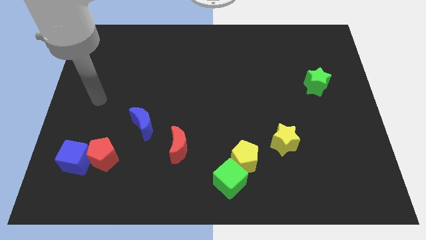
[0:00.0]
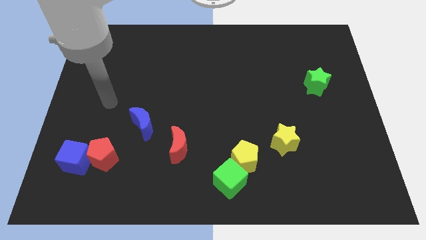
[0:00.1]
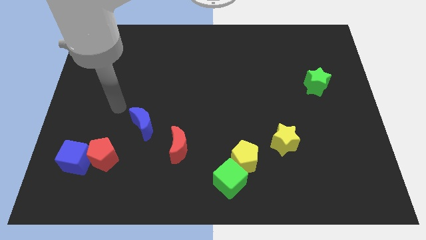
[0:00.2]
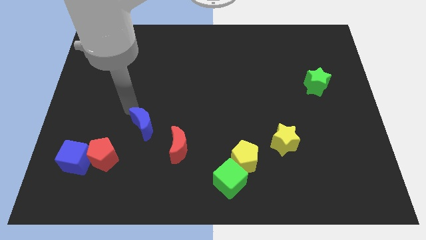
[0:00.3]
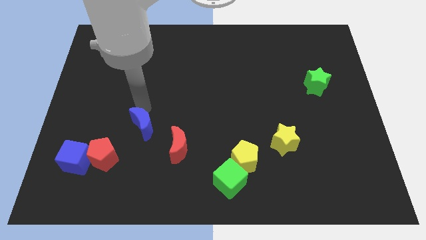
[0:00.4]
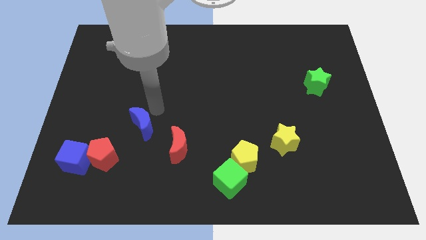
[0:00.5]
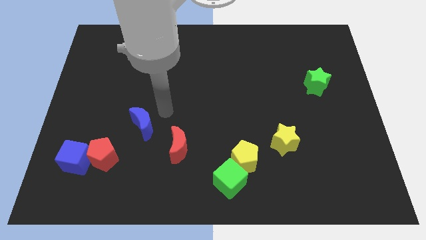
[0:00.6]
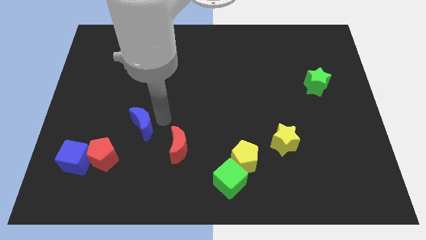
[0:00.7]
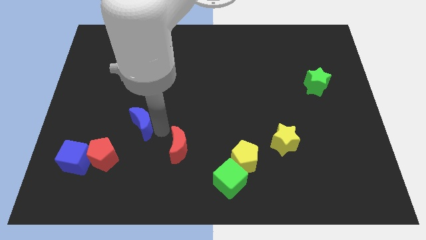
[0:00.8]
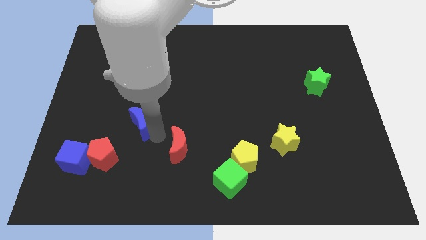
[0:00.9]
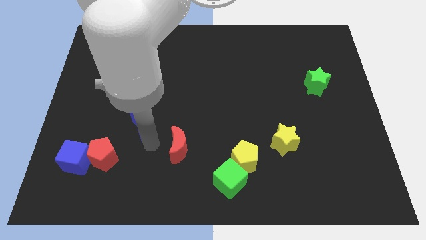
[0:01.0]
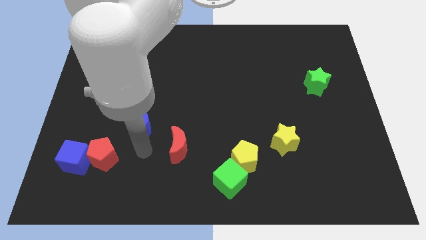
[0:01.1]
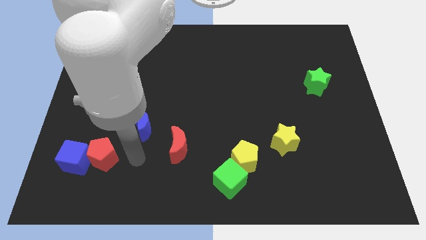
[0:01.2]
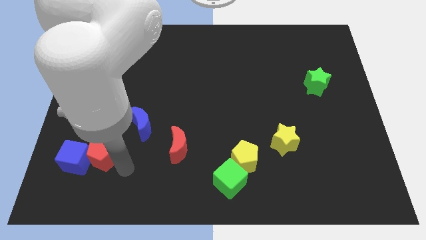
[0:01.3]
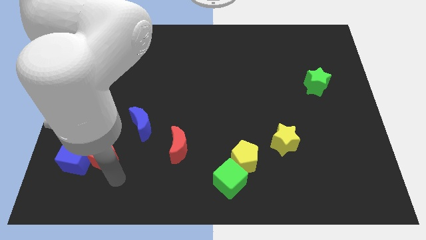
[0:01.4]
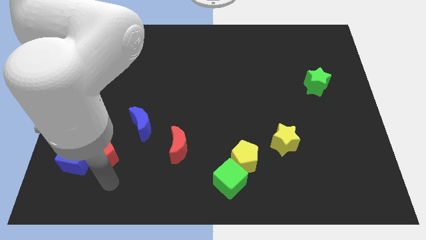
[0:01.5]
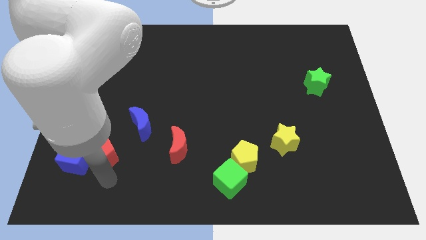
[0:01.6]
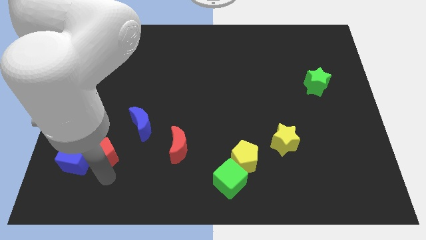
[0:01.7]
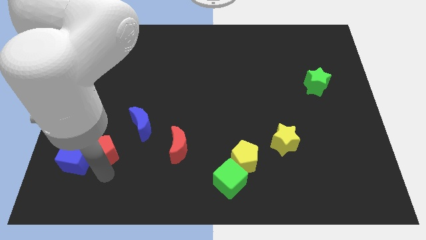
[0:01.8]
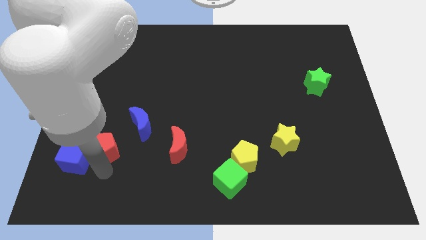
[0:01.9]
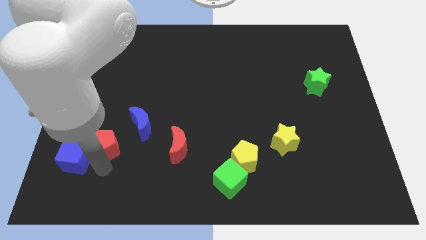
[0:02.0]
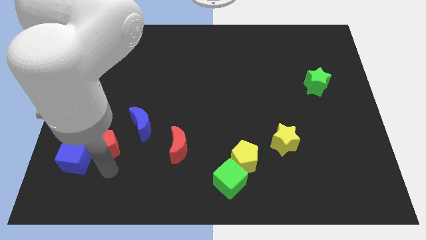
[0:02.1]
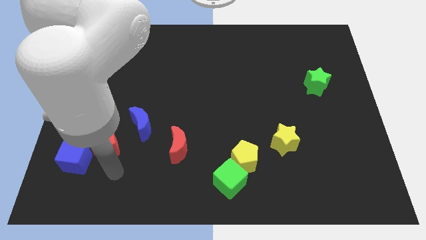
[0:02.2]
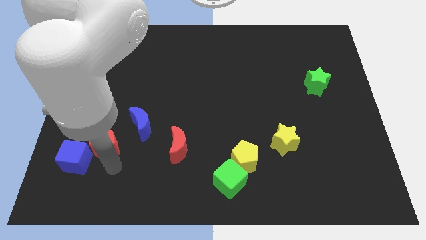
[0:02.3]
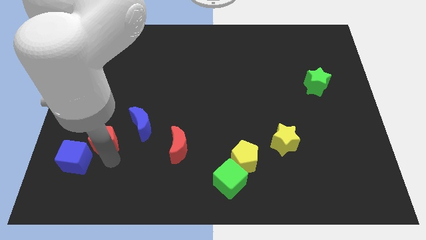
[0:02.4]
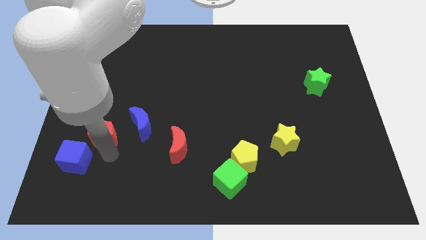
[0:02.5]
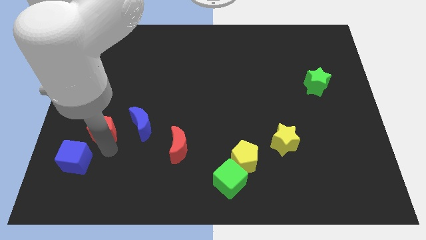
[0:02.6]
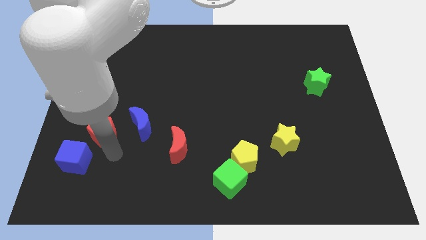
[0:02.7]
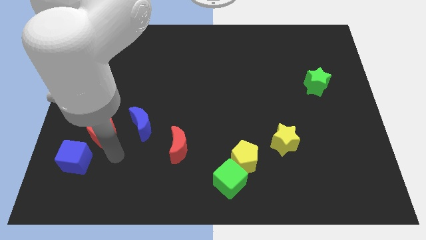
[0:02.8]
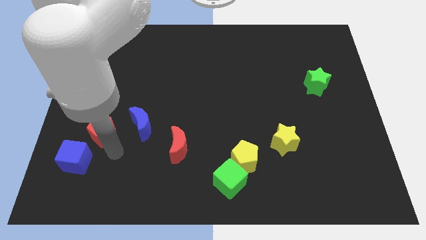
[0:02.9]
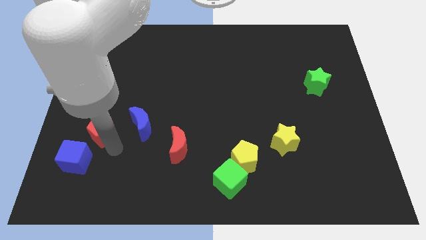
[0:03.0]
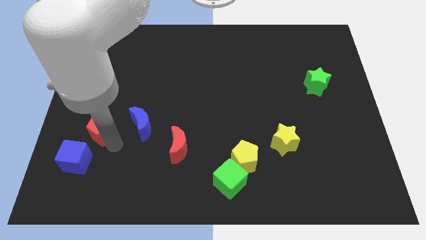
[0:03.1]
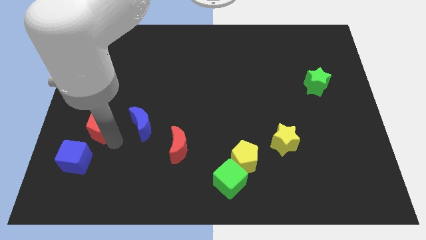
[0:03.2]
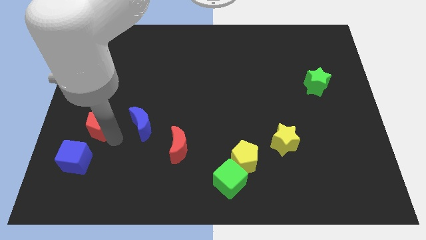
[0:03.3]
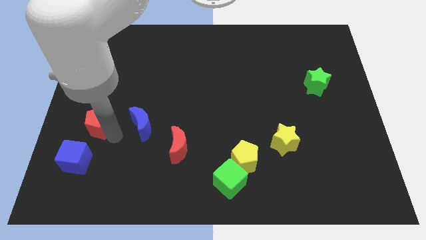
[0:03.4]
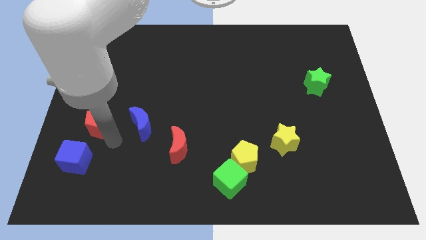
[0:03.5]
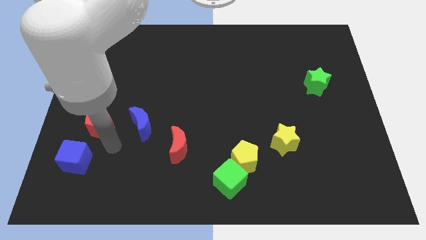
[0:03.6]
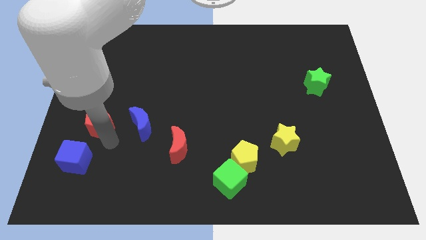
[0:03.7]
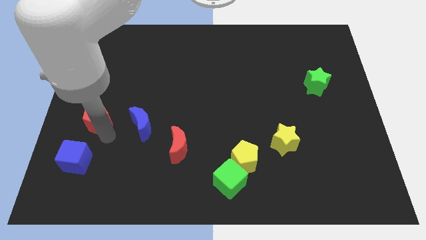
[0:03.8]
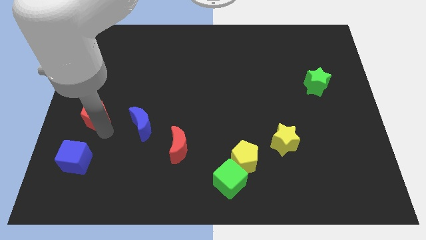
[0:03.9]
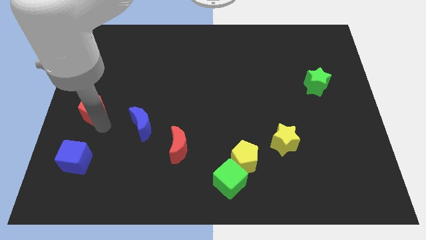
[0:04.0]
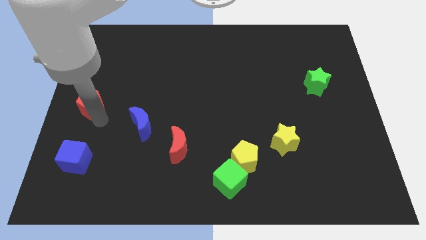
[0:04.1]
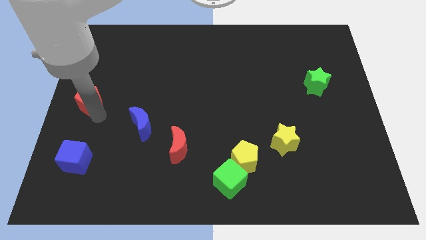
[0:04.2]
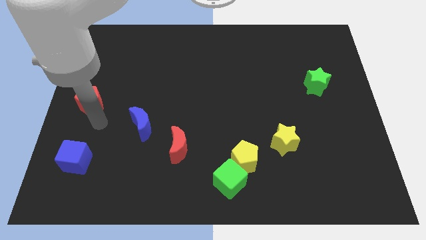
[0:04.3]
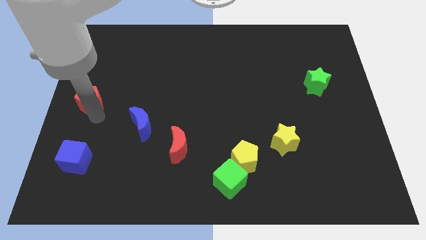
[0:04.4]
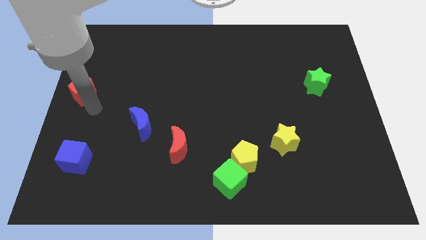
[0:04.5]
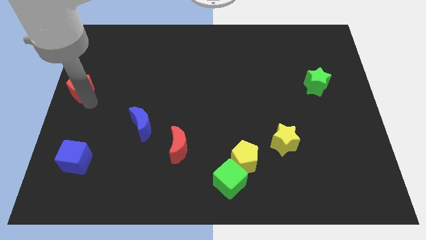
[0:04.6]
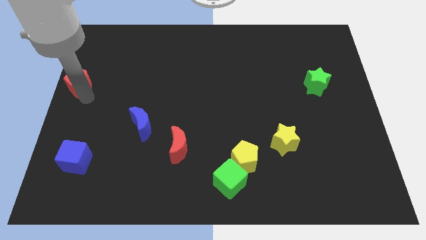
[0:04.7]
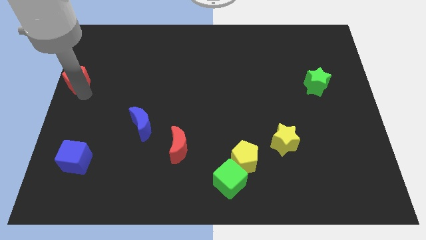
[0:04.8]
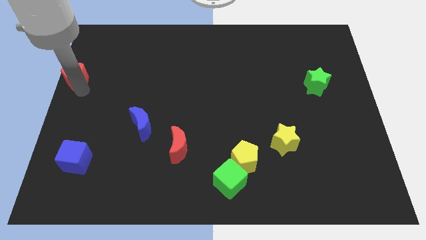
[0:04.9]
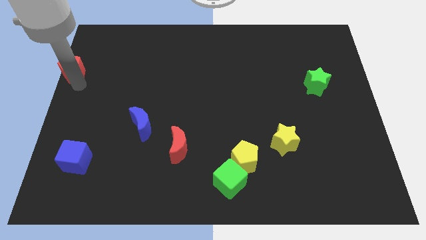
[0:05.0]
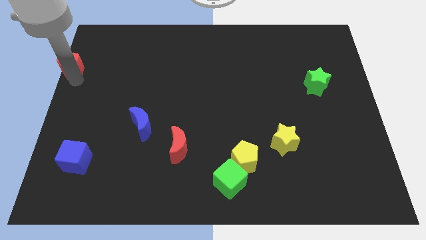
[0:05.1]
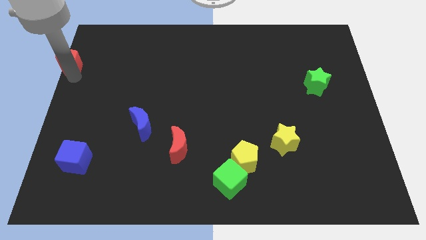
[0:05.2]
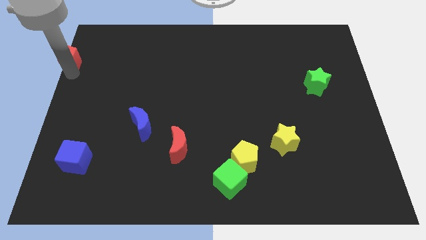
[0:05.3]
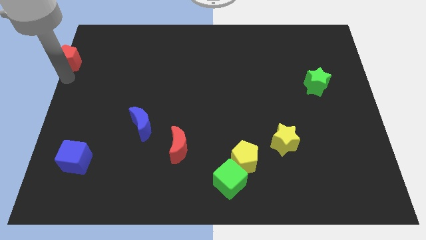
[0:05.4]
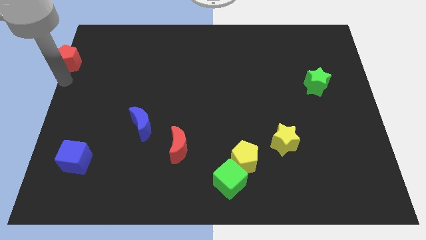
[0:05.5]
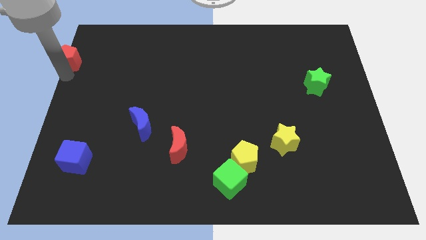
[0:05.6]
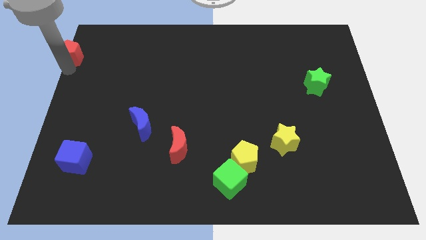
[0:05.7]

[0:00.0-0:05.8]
move the red pentagon to the top left

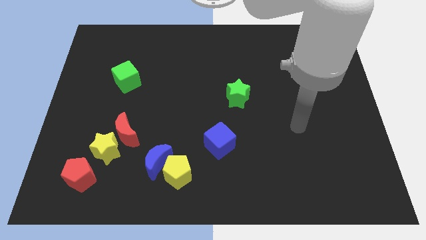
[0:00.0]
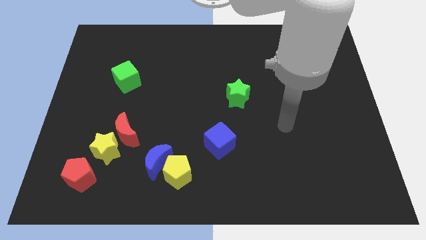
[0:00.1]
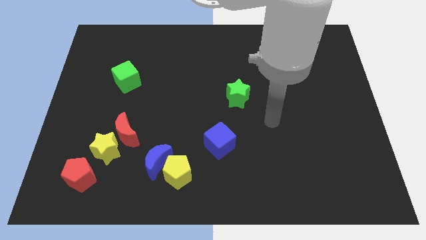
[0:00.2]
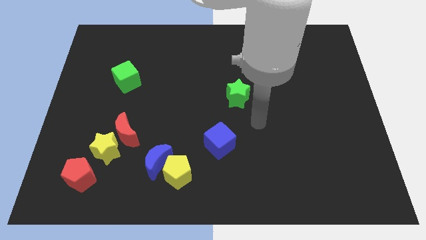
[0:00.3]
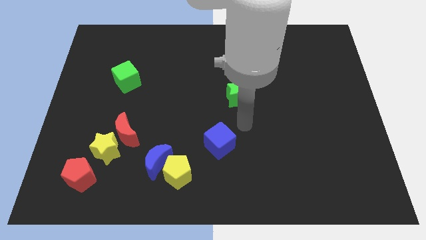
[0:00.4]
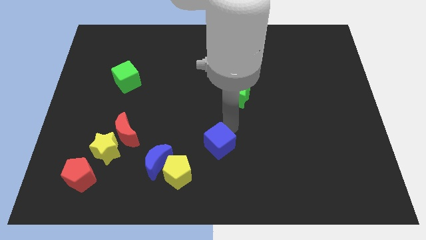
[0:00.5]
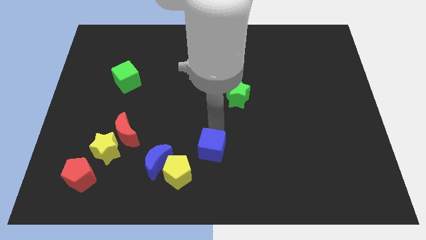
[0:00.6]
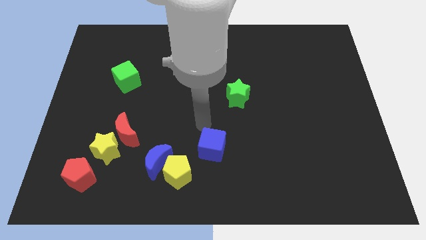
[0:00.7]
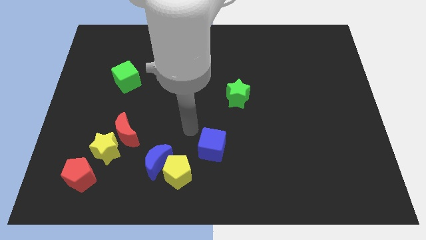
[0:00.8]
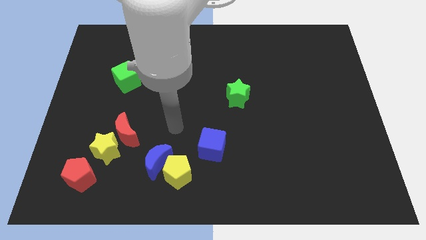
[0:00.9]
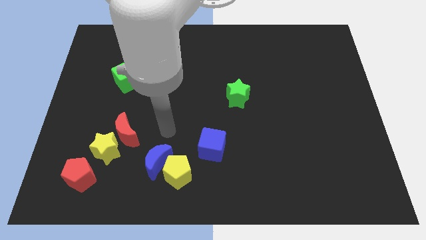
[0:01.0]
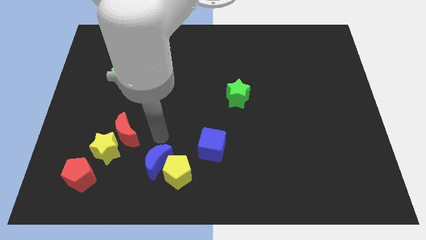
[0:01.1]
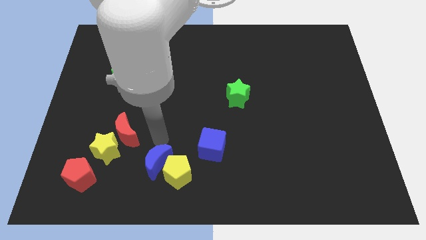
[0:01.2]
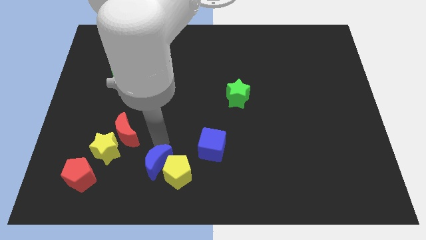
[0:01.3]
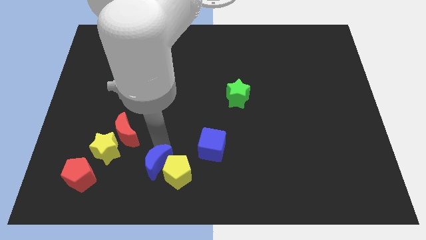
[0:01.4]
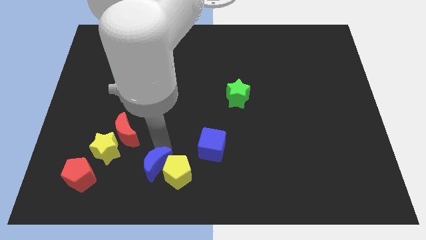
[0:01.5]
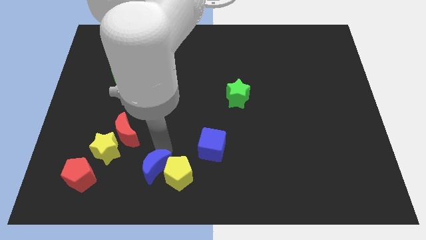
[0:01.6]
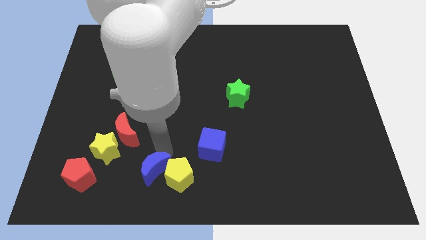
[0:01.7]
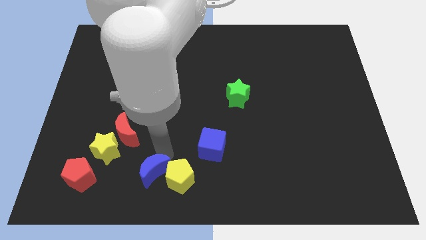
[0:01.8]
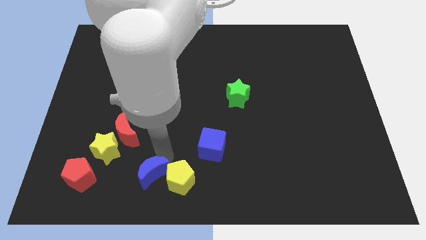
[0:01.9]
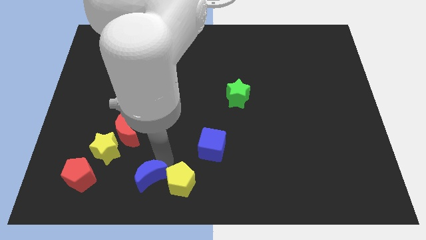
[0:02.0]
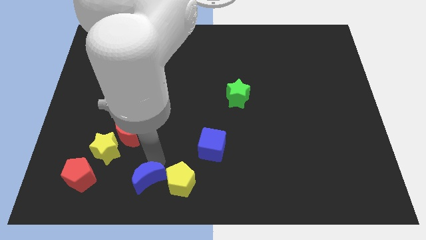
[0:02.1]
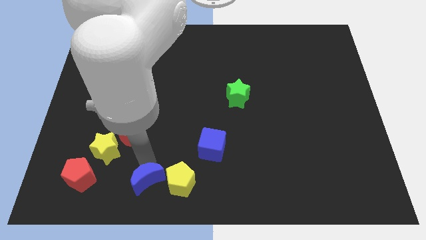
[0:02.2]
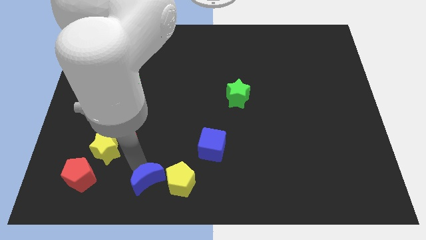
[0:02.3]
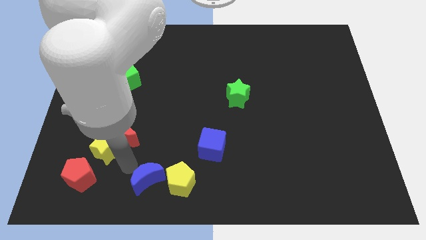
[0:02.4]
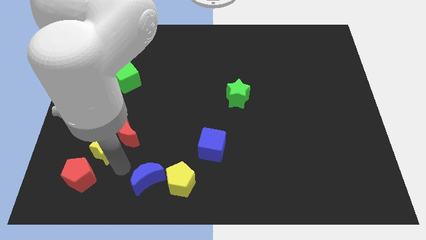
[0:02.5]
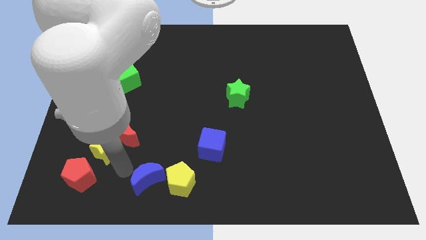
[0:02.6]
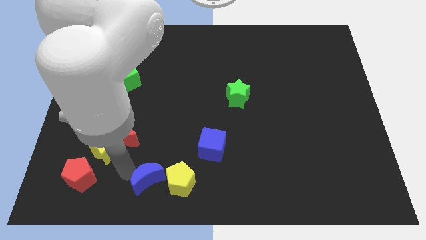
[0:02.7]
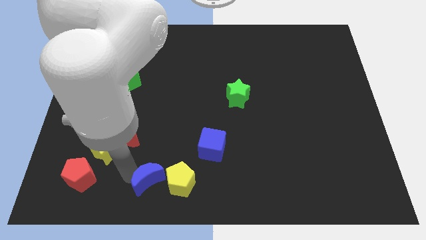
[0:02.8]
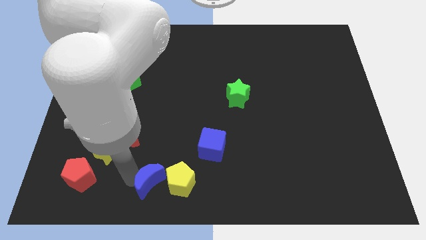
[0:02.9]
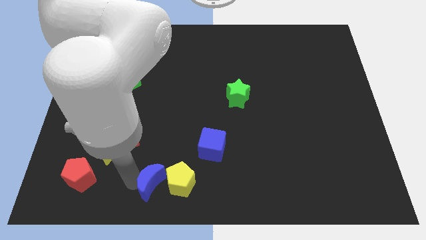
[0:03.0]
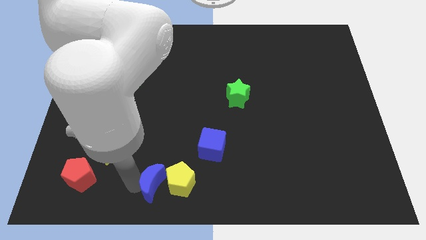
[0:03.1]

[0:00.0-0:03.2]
slide the blue moon to the bottom side
